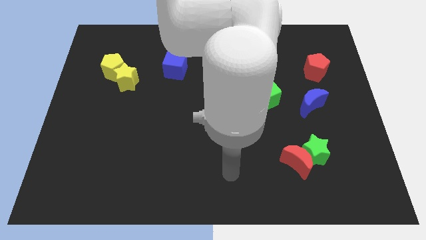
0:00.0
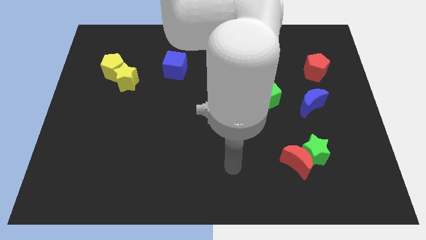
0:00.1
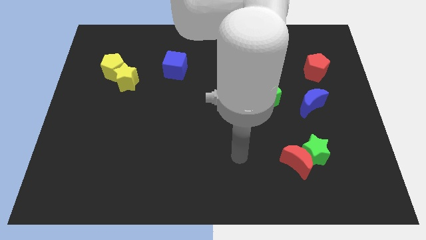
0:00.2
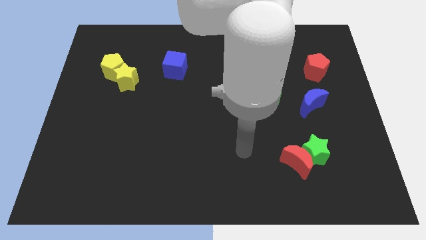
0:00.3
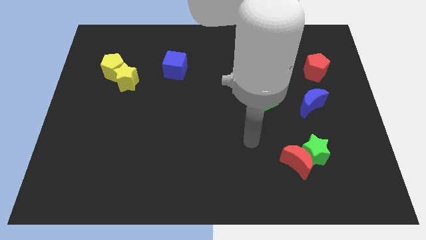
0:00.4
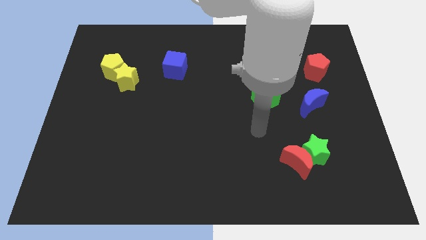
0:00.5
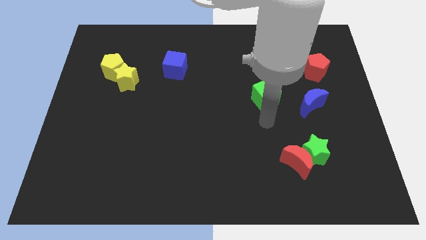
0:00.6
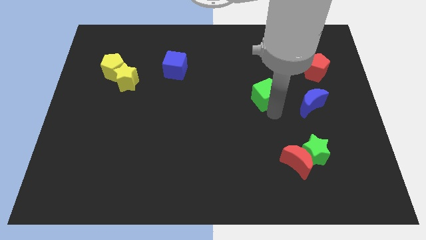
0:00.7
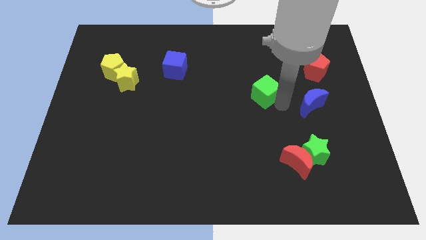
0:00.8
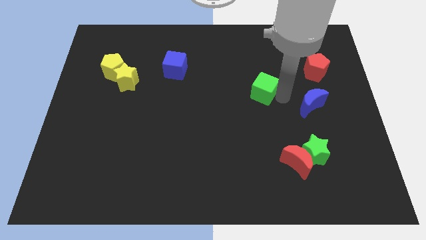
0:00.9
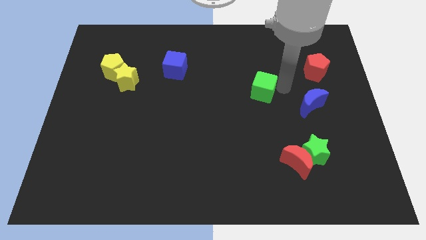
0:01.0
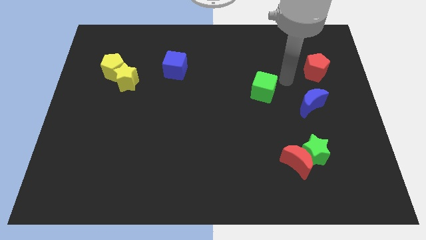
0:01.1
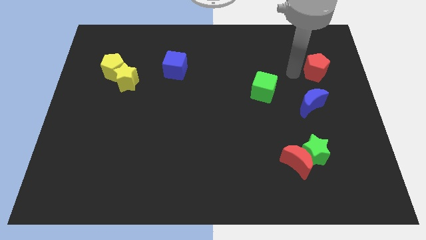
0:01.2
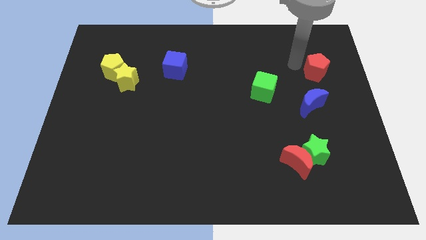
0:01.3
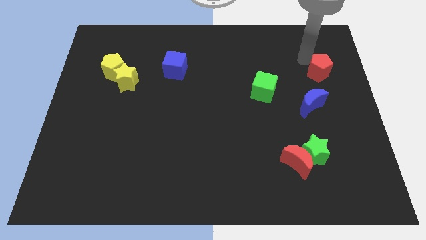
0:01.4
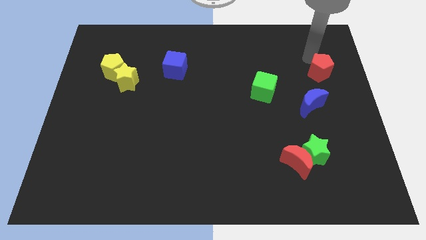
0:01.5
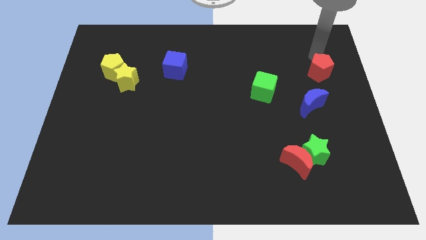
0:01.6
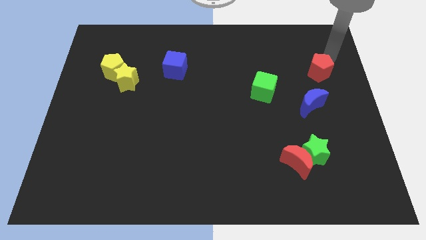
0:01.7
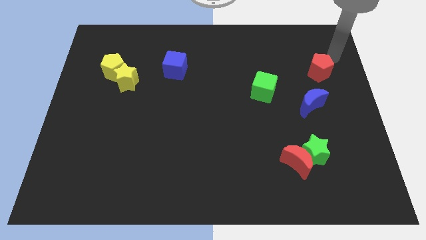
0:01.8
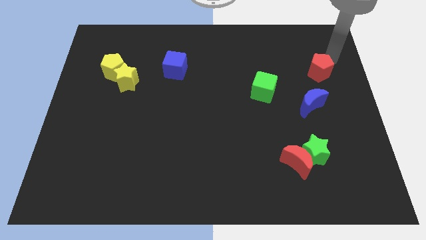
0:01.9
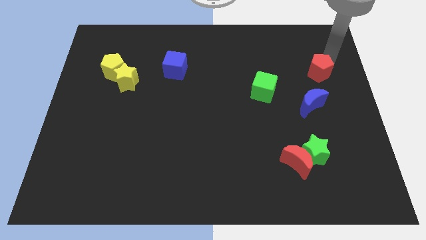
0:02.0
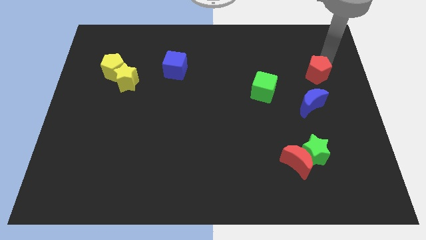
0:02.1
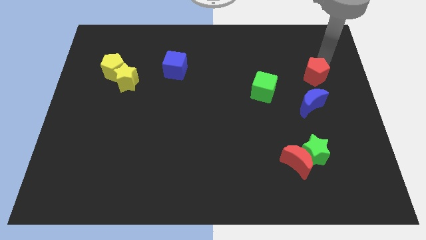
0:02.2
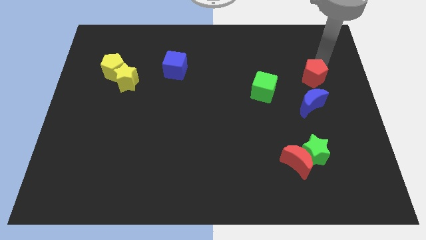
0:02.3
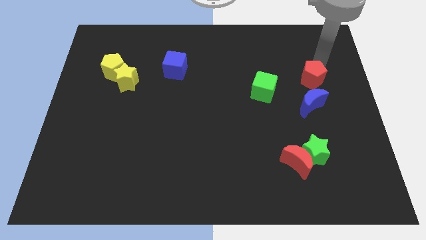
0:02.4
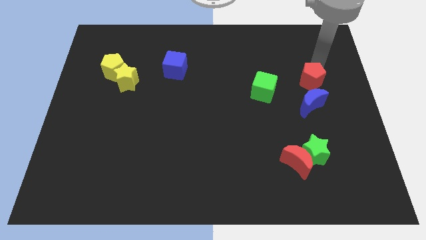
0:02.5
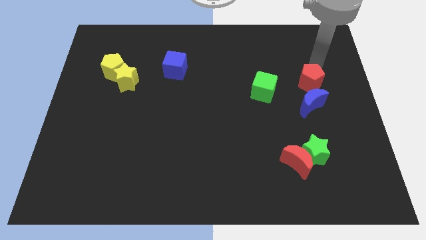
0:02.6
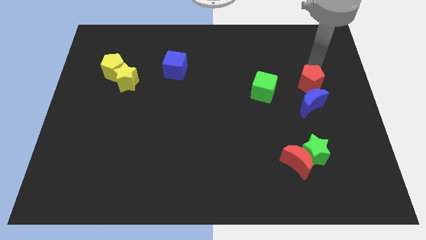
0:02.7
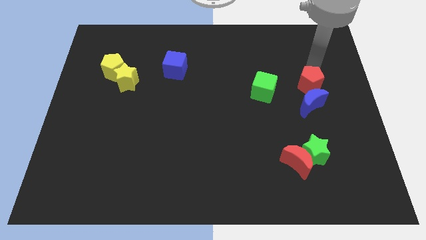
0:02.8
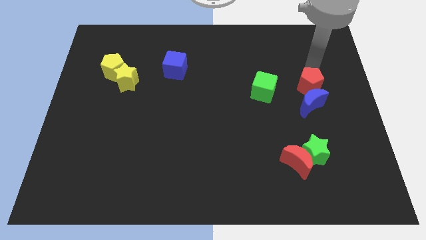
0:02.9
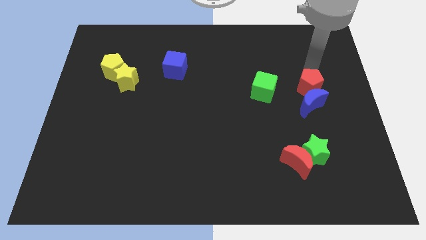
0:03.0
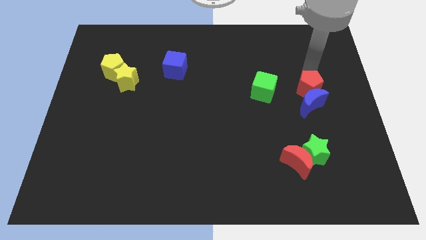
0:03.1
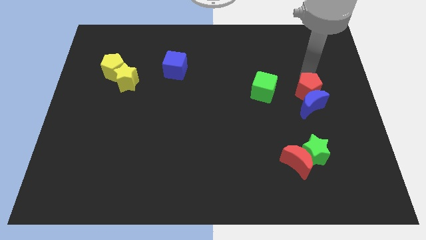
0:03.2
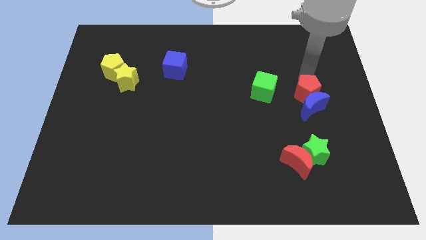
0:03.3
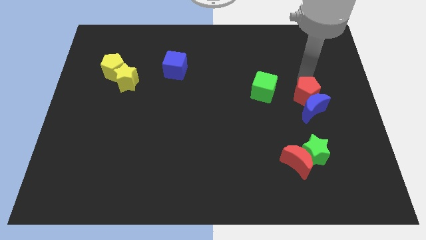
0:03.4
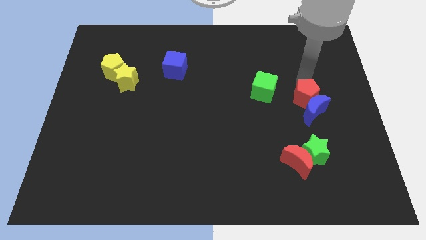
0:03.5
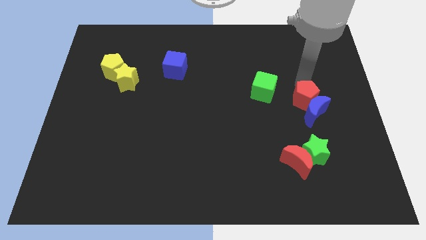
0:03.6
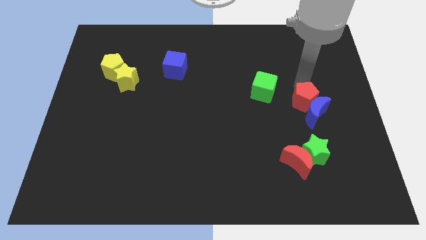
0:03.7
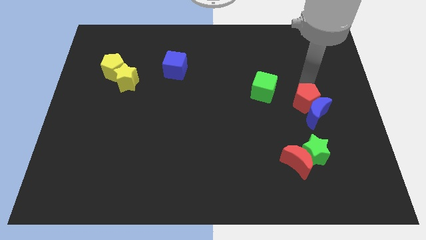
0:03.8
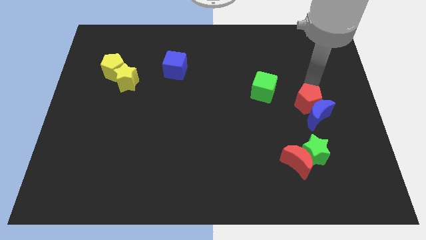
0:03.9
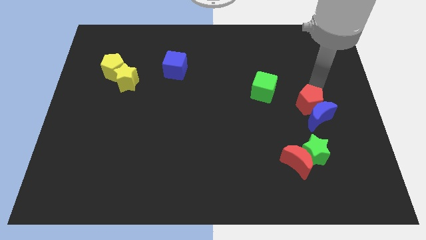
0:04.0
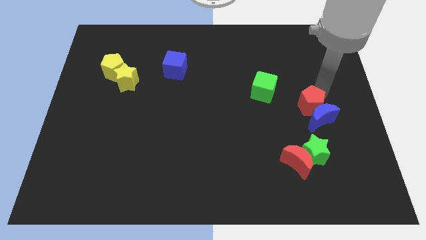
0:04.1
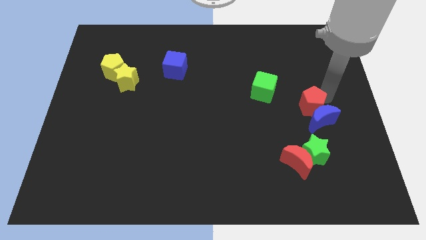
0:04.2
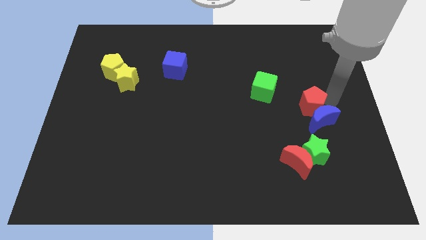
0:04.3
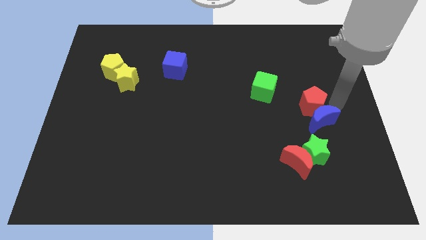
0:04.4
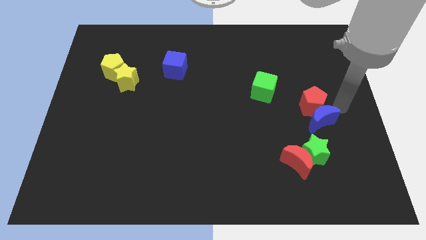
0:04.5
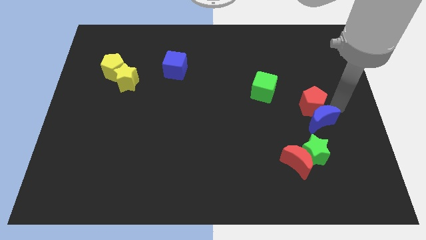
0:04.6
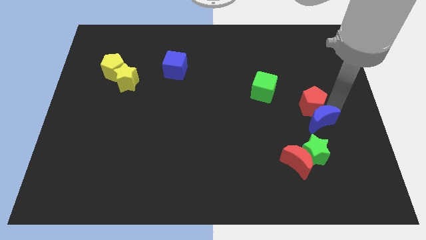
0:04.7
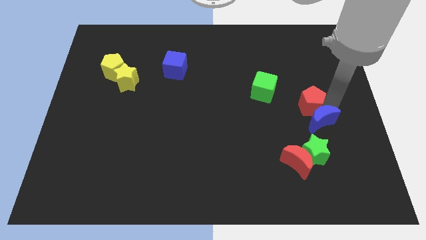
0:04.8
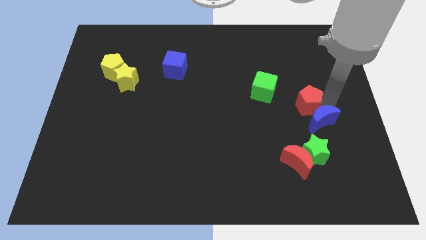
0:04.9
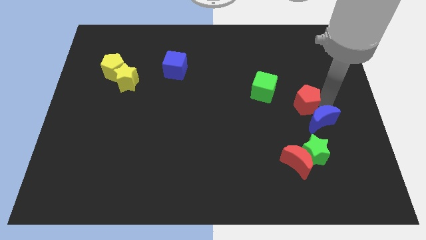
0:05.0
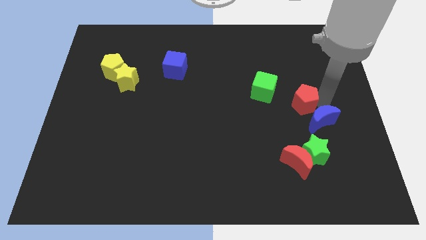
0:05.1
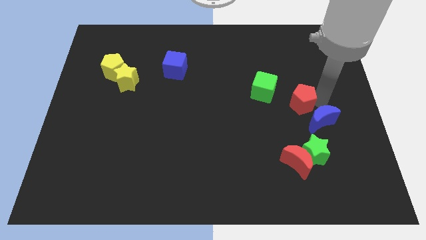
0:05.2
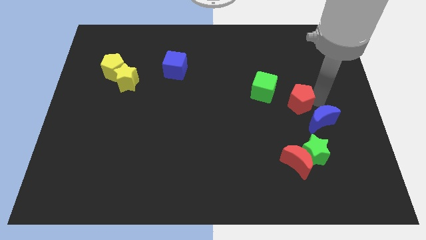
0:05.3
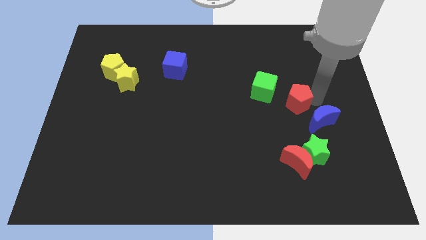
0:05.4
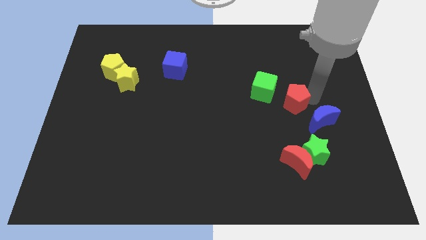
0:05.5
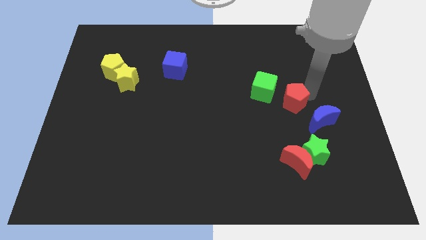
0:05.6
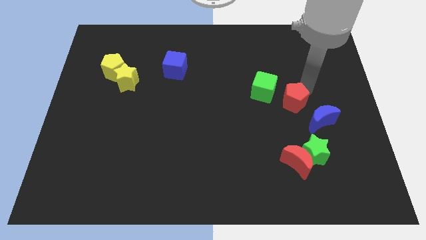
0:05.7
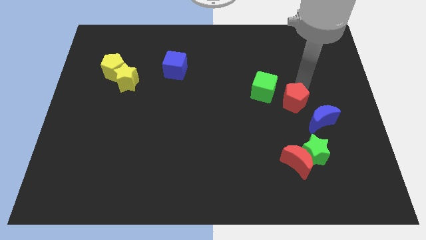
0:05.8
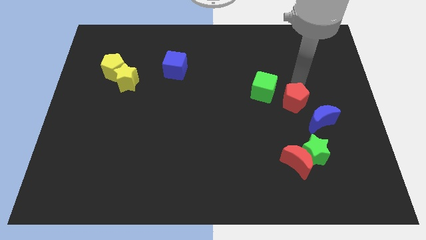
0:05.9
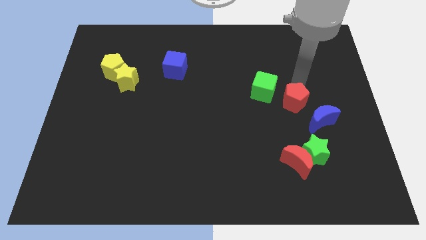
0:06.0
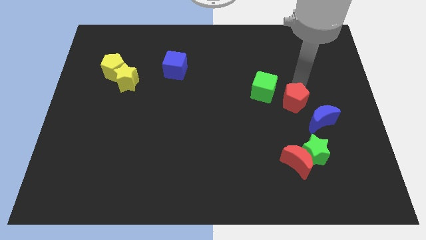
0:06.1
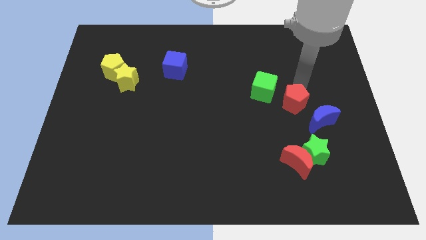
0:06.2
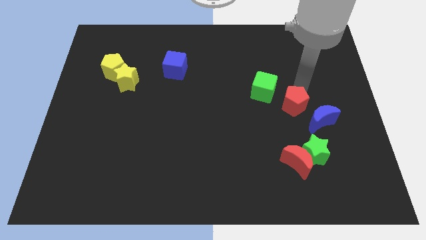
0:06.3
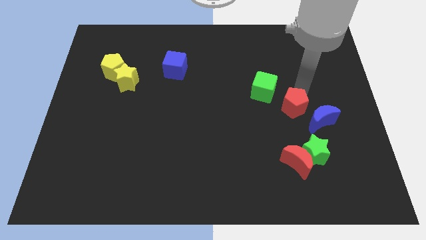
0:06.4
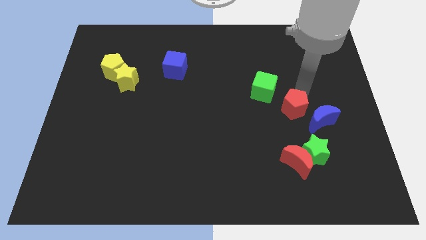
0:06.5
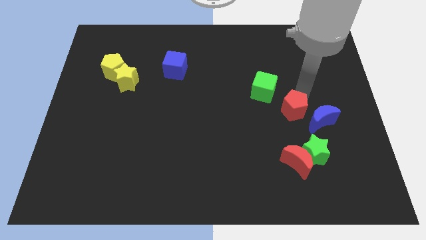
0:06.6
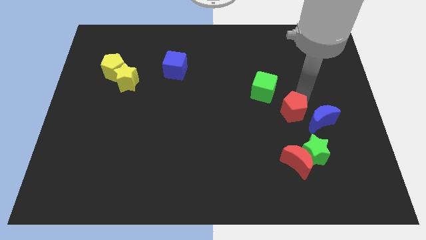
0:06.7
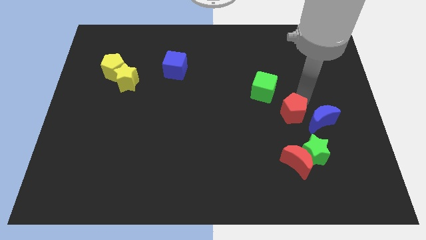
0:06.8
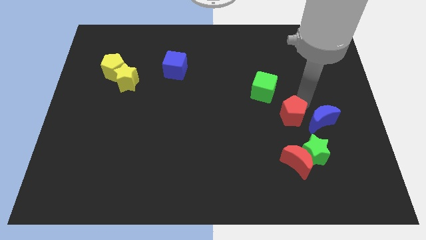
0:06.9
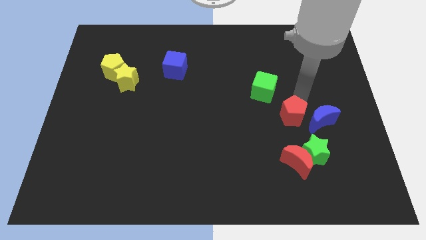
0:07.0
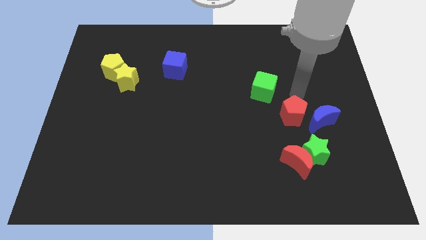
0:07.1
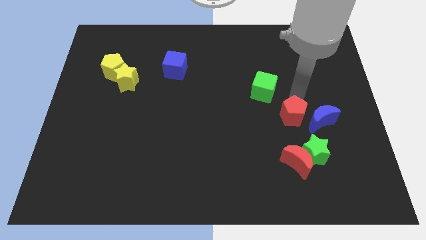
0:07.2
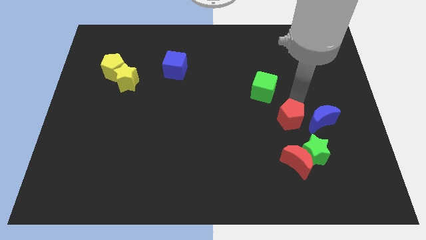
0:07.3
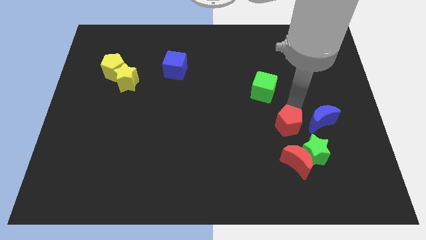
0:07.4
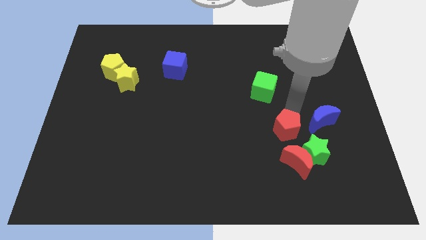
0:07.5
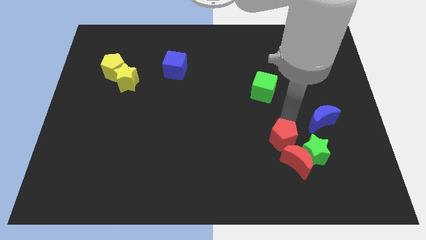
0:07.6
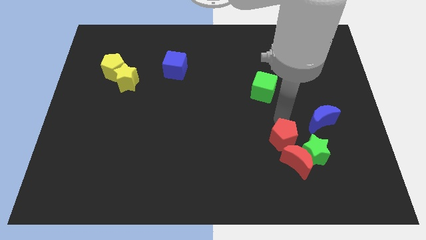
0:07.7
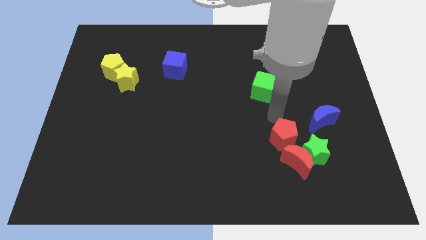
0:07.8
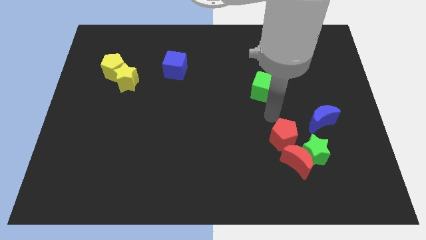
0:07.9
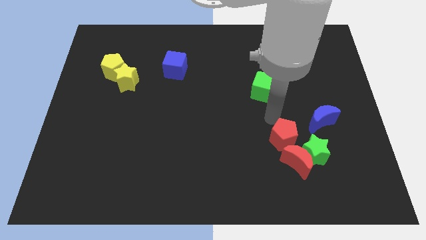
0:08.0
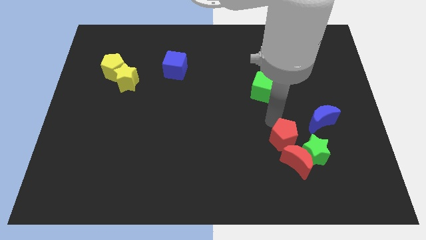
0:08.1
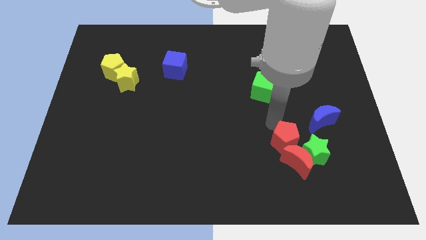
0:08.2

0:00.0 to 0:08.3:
put the red pentagon to the red moon
